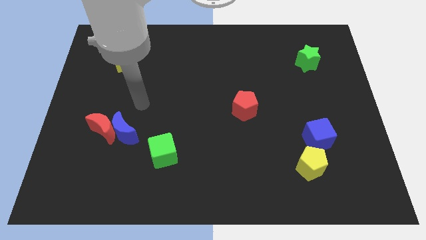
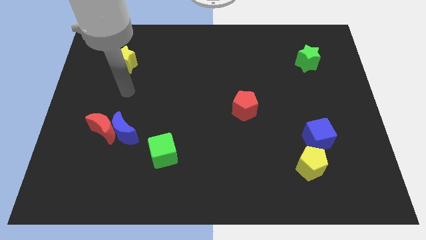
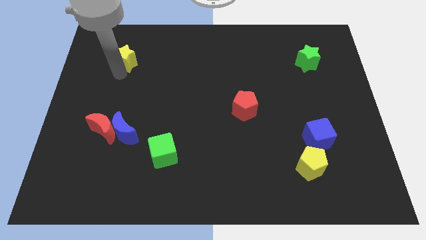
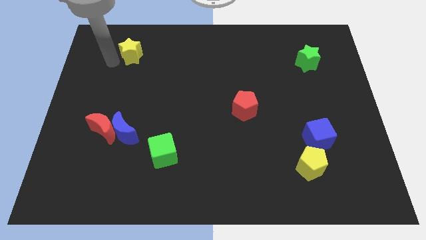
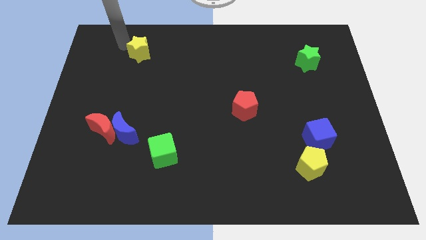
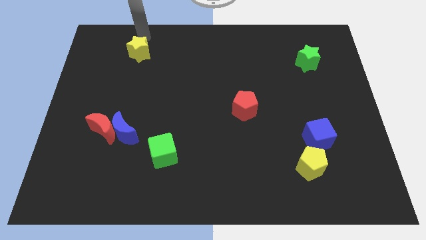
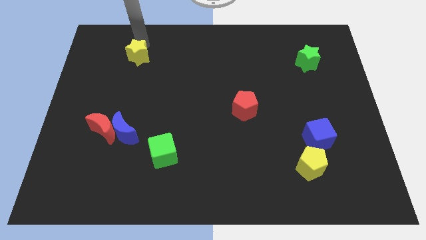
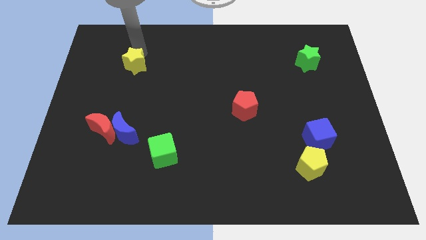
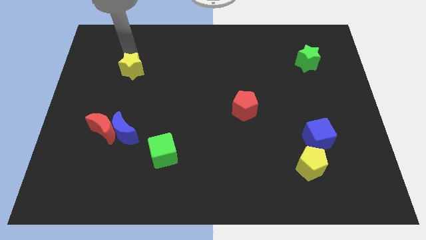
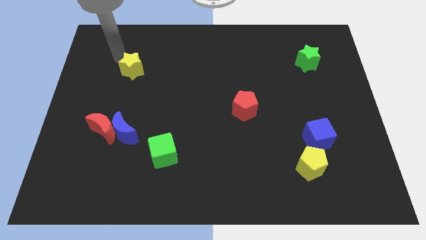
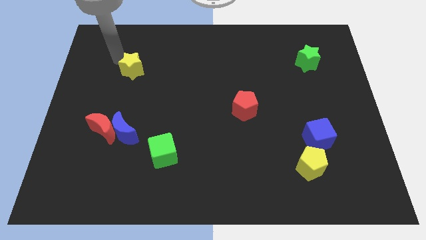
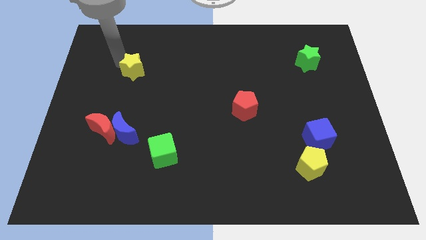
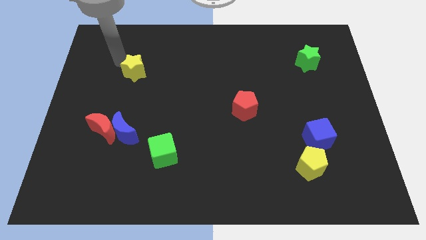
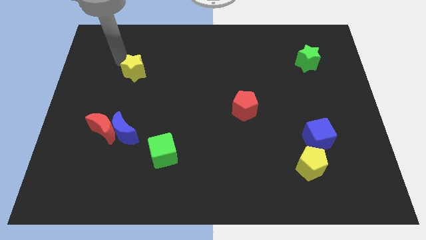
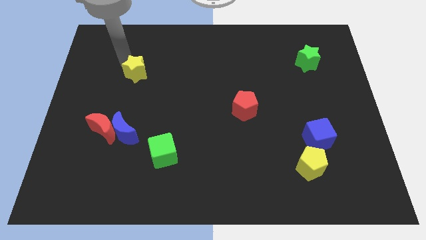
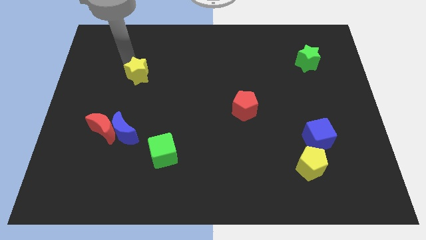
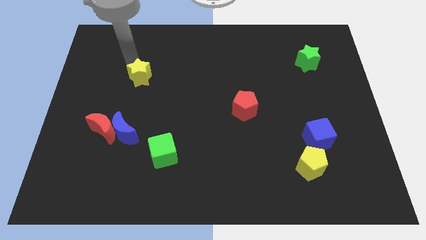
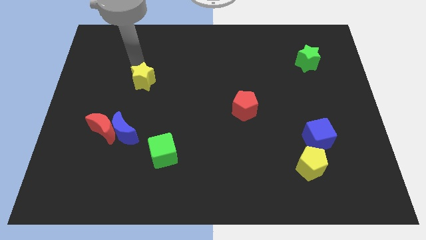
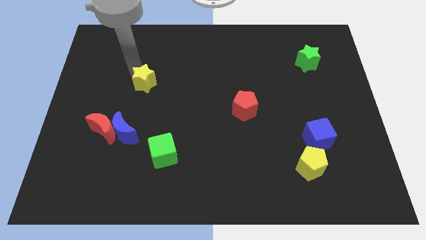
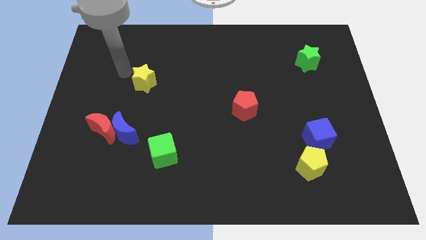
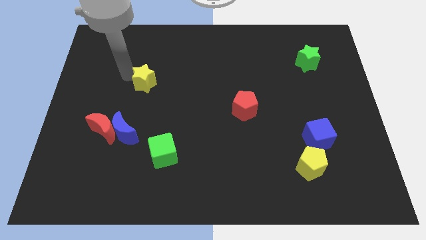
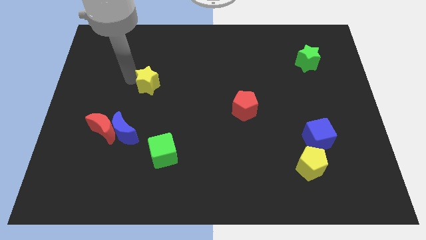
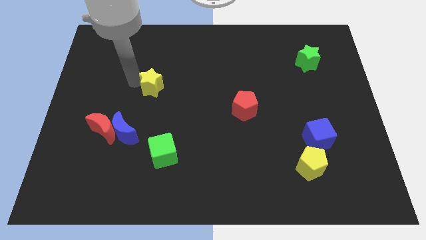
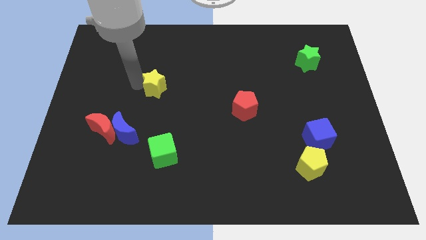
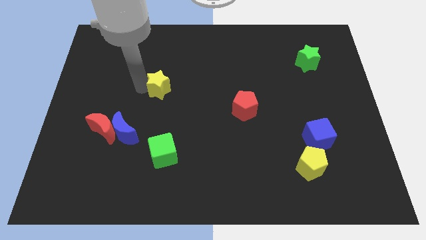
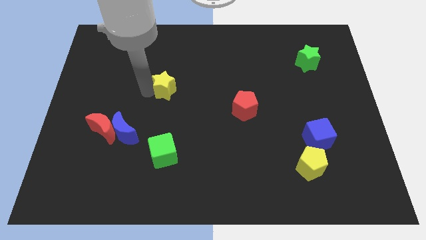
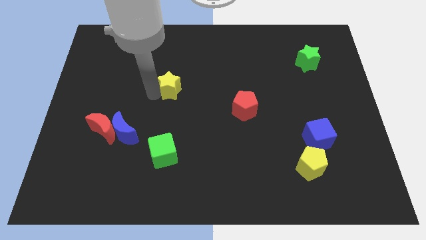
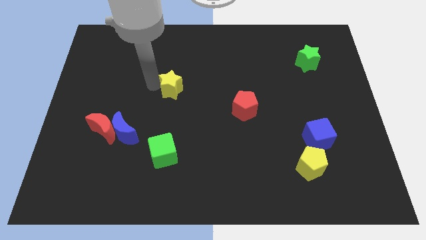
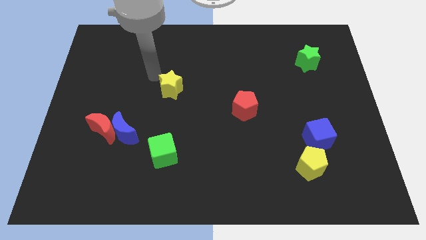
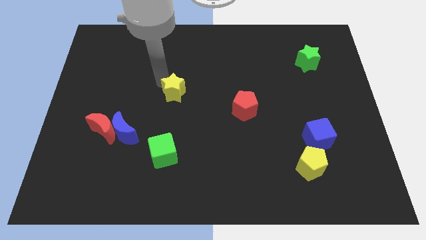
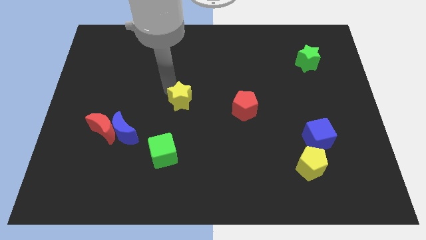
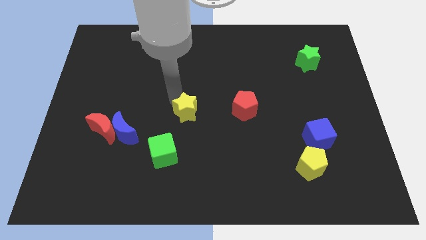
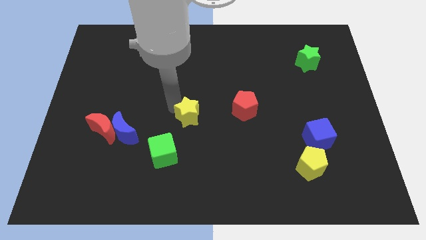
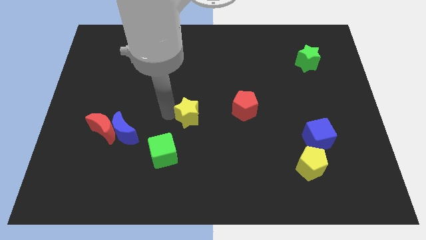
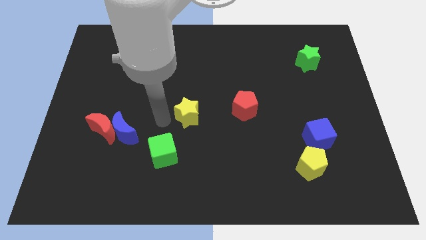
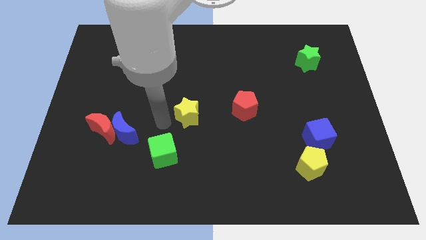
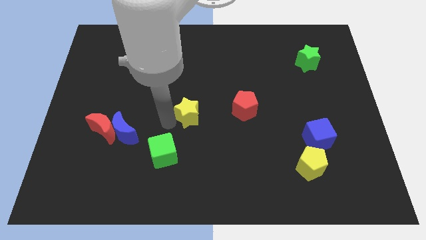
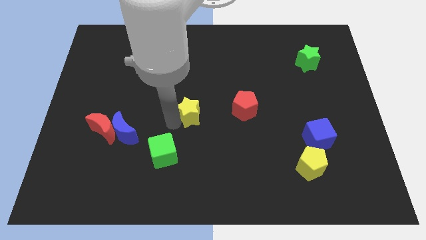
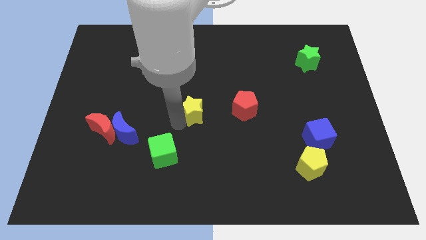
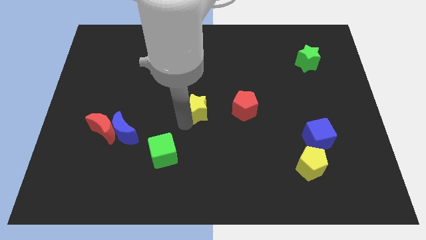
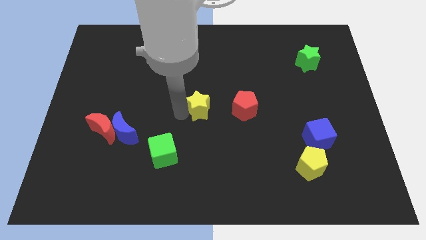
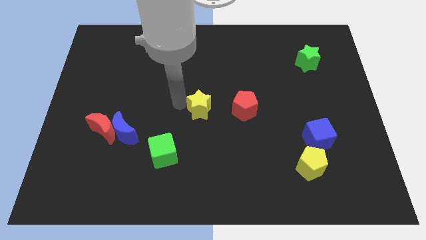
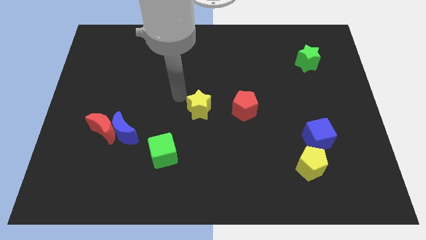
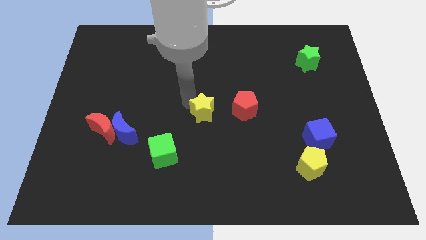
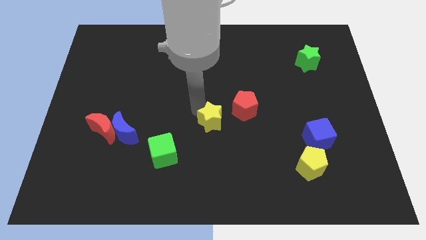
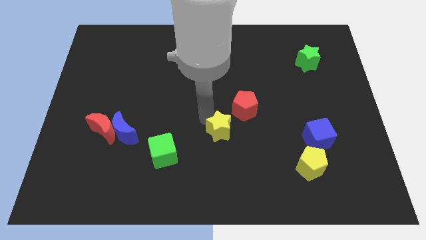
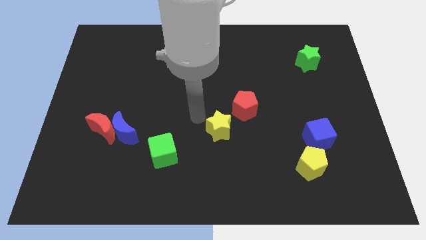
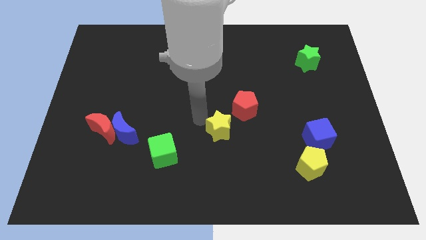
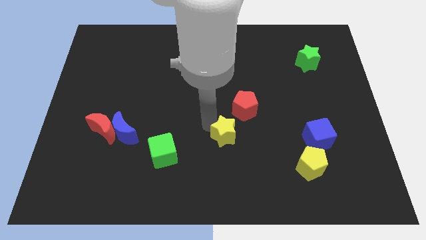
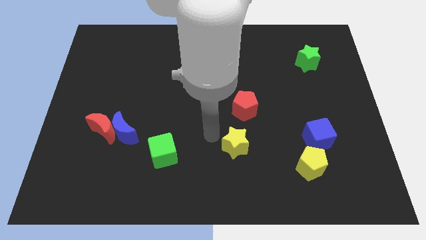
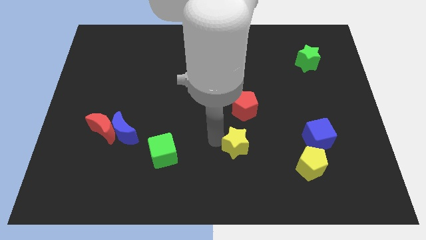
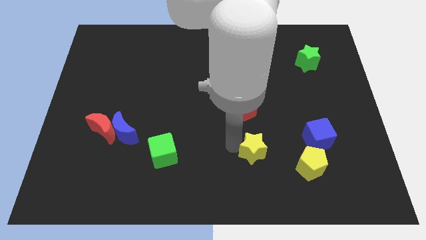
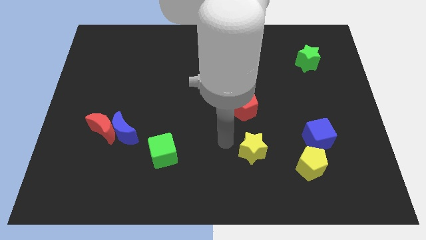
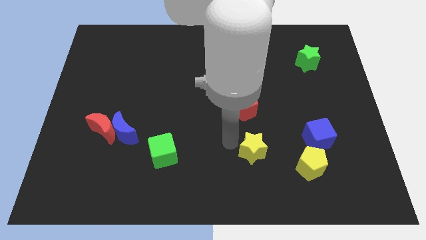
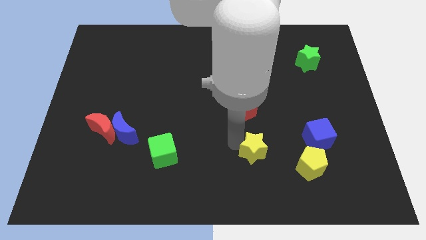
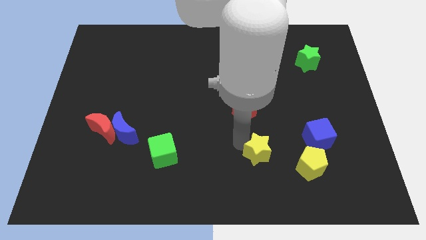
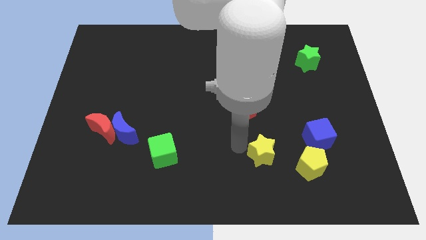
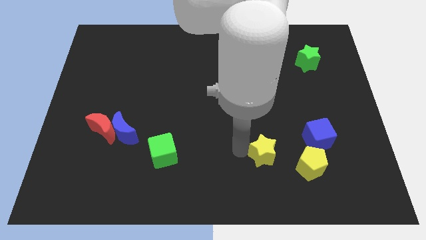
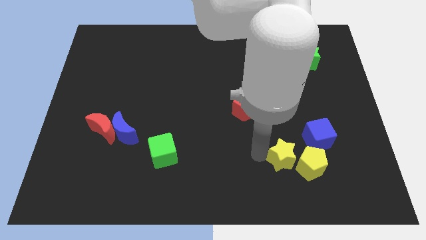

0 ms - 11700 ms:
move the yellow star to the yellow pentagon

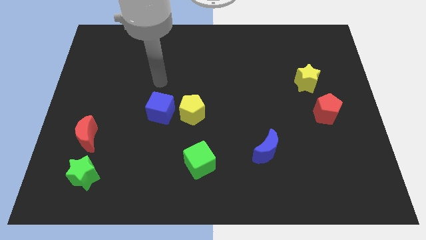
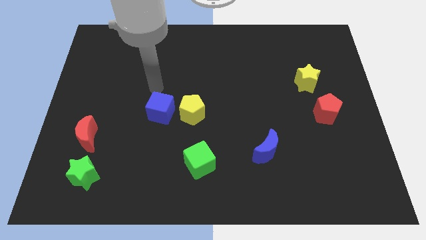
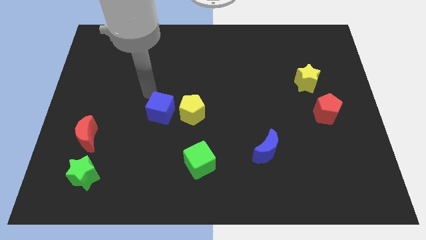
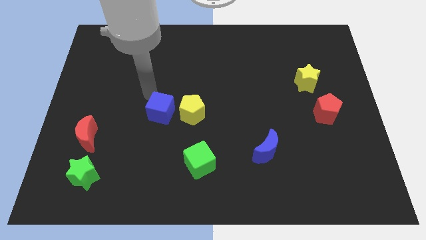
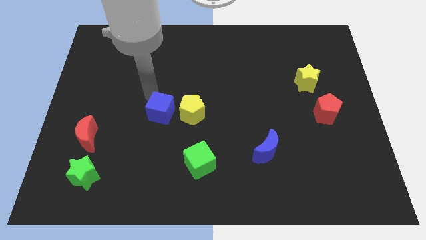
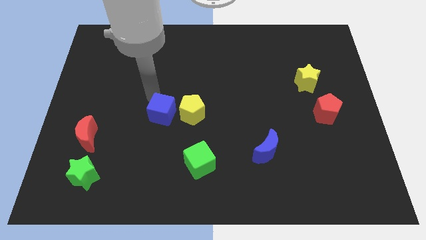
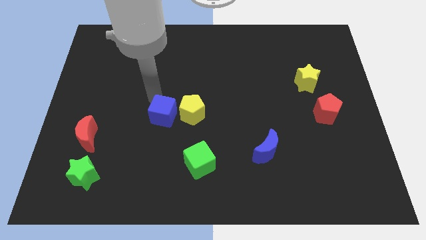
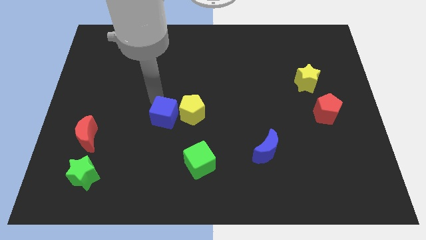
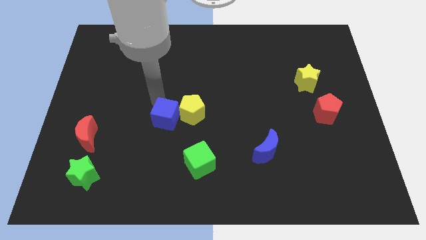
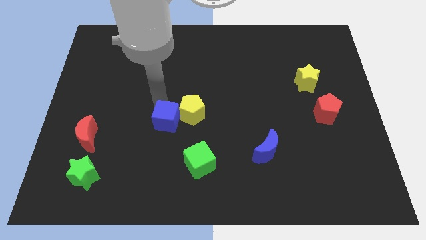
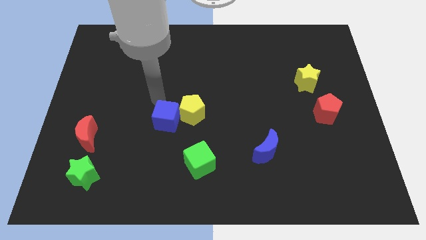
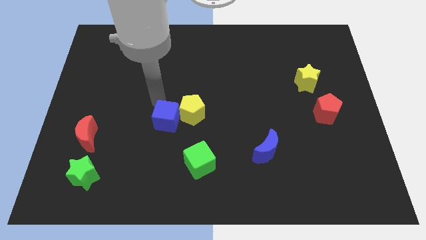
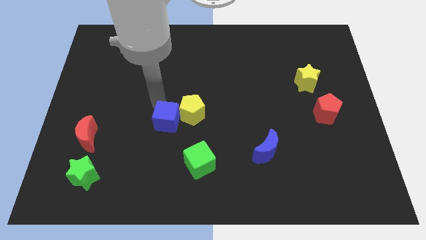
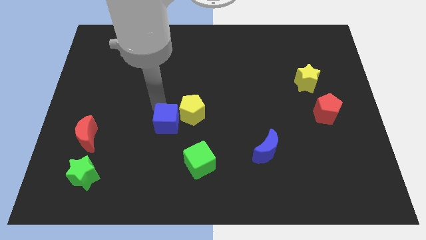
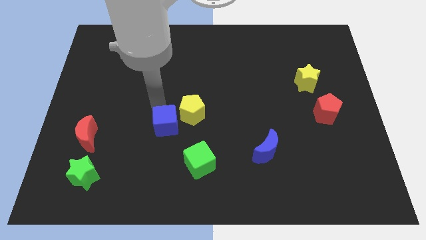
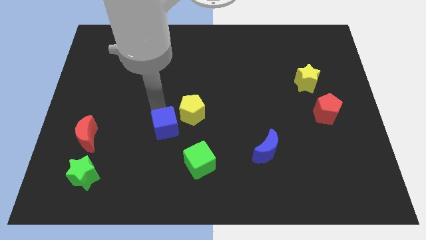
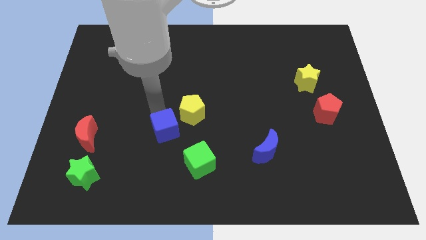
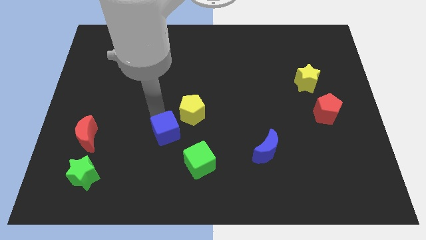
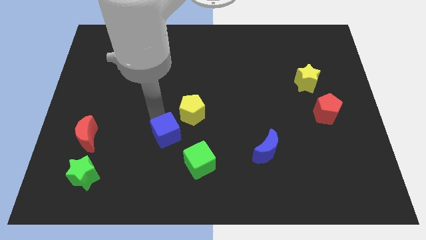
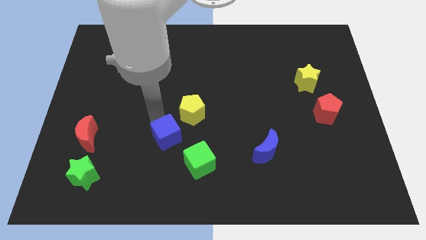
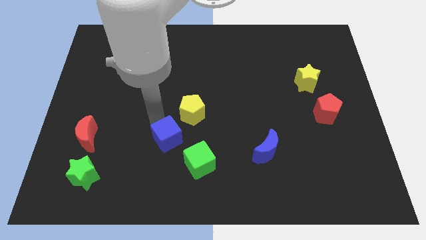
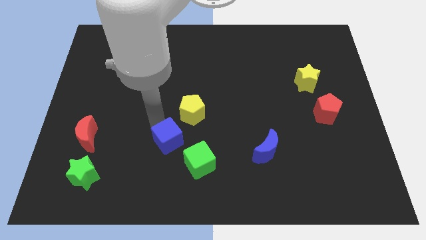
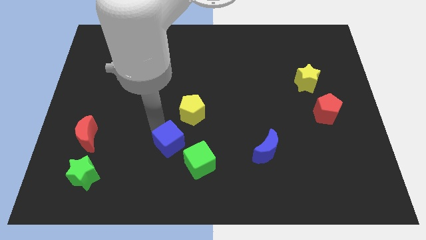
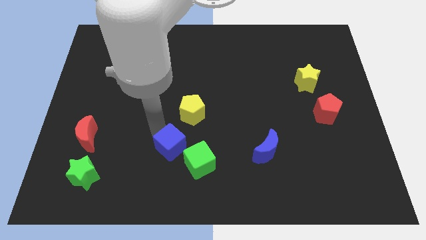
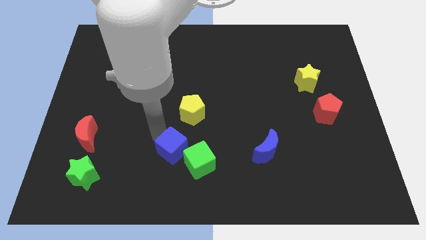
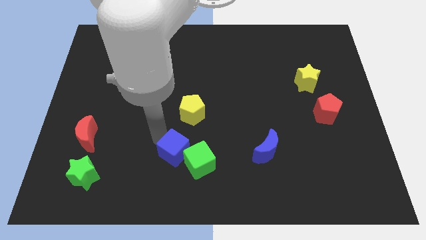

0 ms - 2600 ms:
slide the blue cube to the green cube
